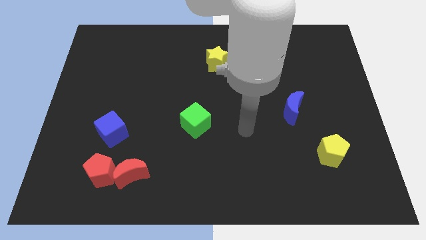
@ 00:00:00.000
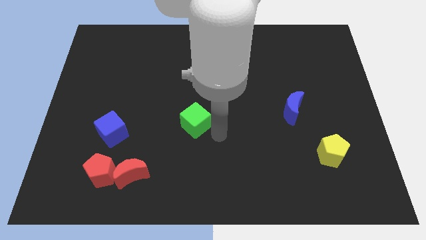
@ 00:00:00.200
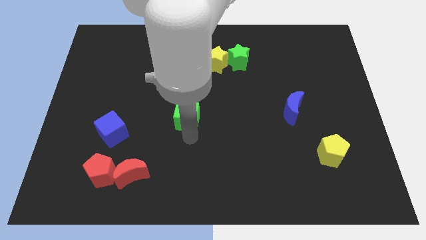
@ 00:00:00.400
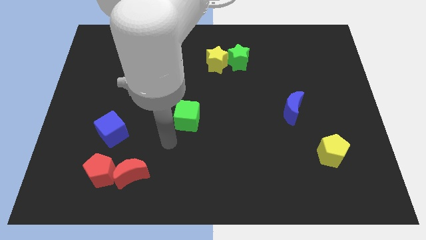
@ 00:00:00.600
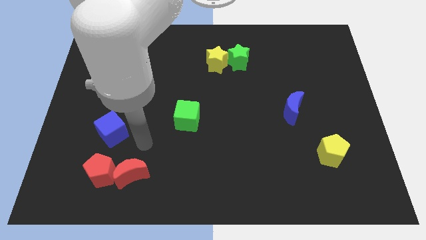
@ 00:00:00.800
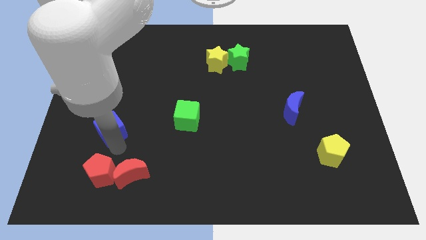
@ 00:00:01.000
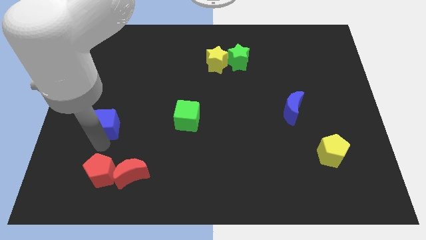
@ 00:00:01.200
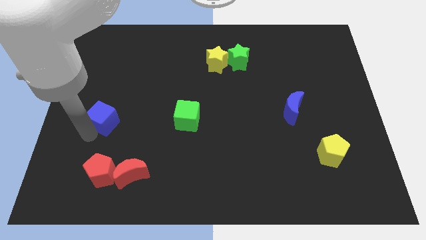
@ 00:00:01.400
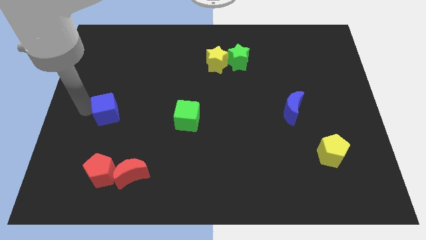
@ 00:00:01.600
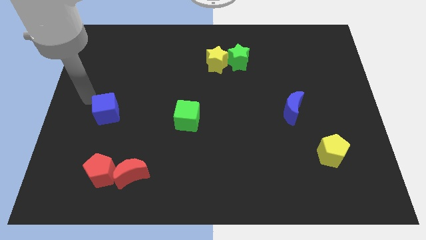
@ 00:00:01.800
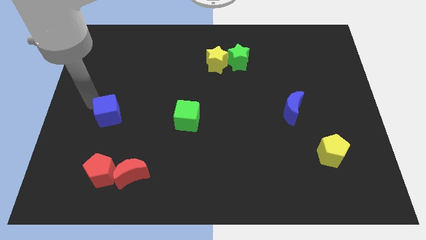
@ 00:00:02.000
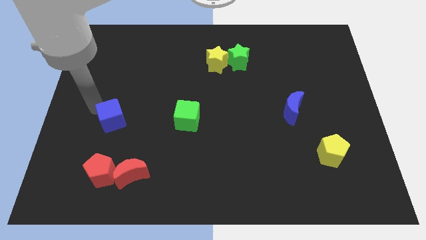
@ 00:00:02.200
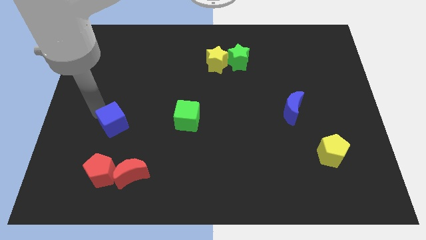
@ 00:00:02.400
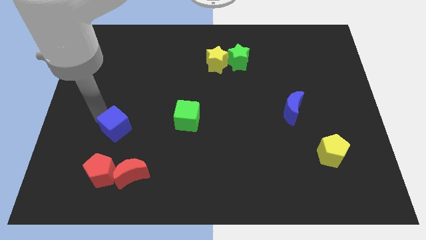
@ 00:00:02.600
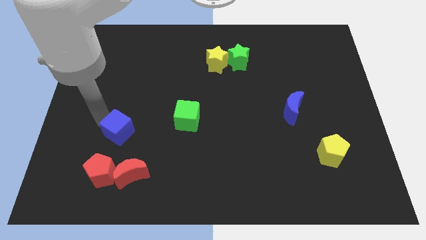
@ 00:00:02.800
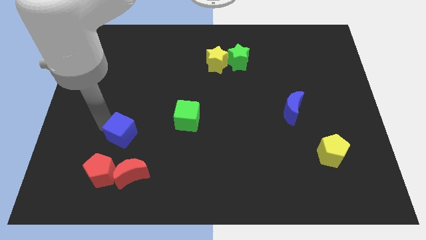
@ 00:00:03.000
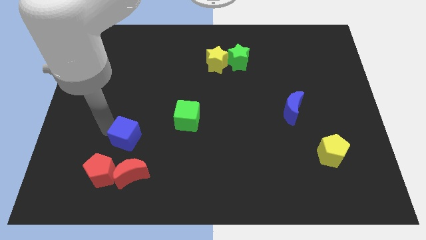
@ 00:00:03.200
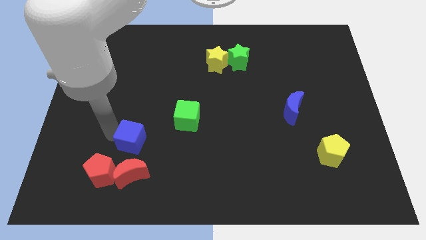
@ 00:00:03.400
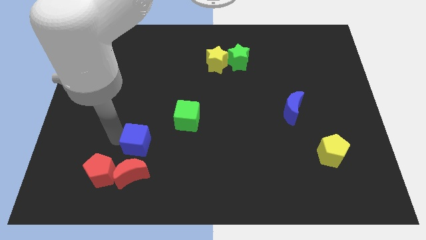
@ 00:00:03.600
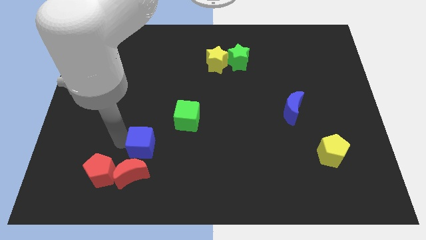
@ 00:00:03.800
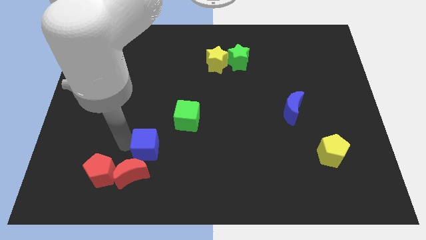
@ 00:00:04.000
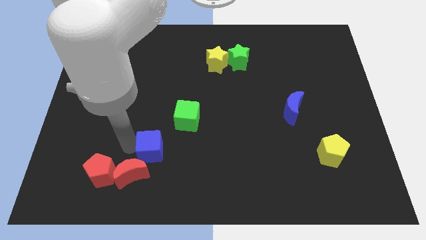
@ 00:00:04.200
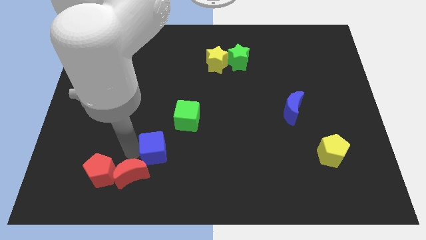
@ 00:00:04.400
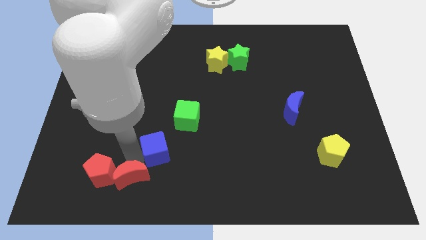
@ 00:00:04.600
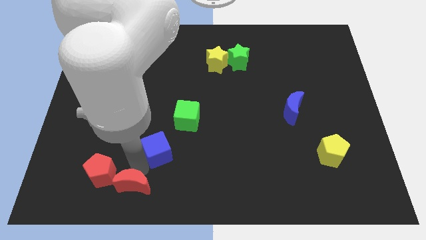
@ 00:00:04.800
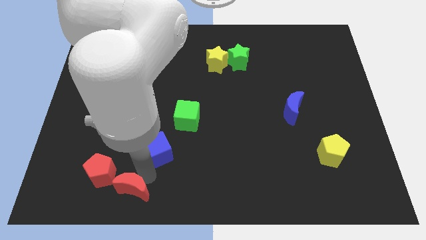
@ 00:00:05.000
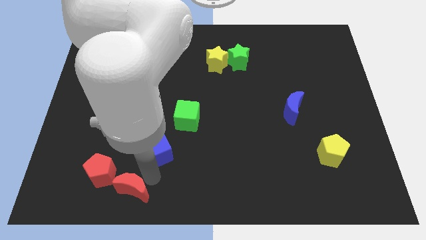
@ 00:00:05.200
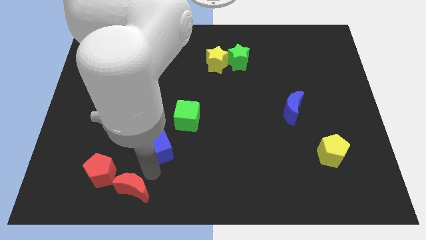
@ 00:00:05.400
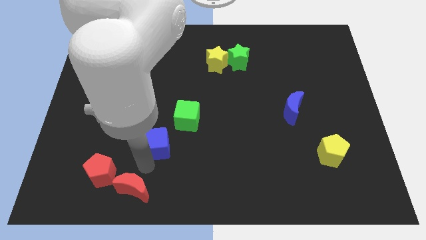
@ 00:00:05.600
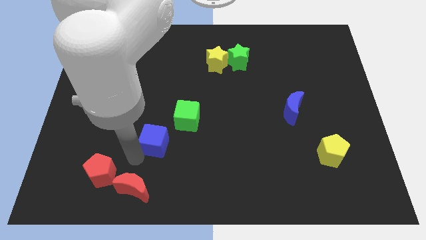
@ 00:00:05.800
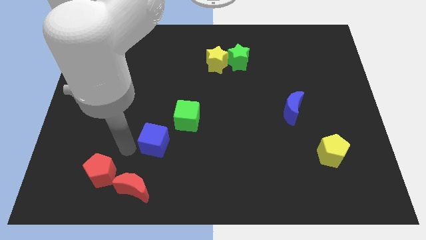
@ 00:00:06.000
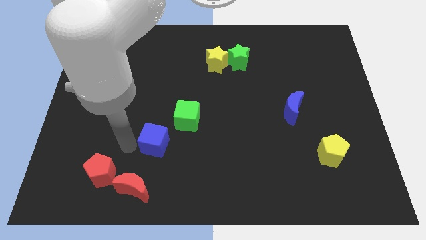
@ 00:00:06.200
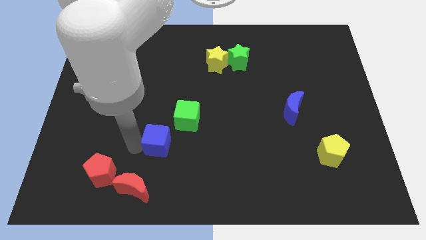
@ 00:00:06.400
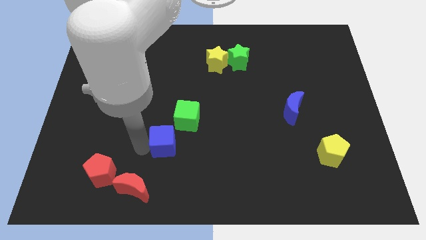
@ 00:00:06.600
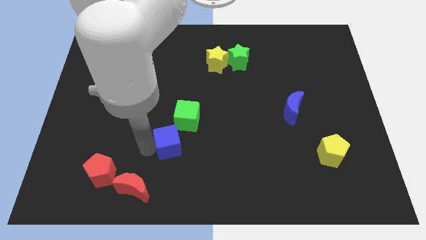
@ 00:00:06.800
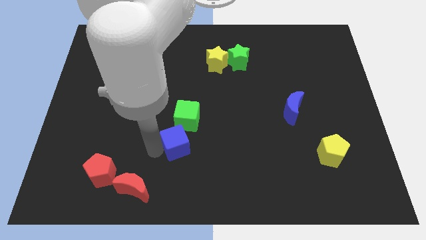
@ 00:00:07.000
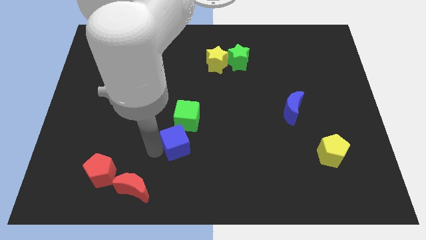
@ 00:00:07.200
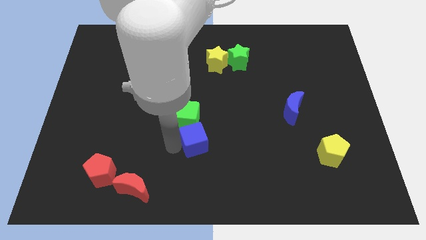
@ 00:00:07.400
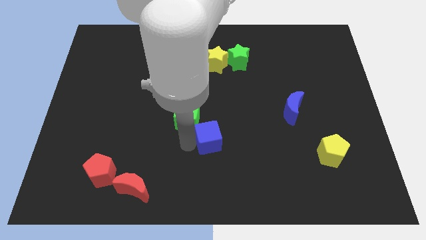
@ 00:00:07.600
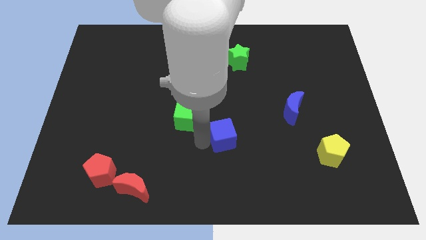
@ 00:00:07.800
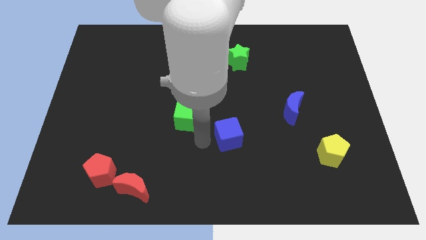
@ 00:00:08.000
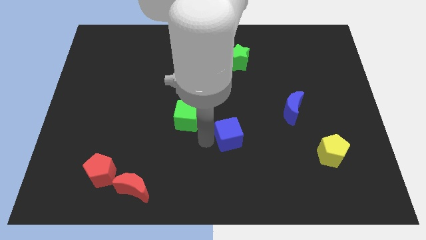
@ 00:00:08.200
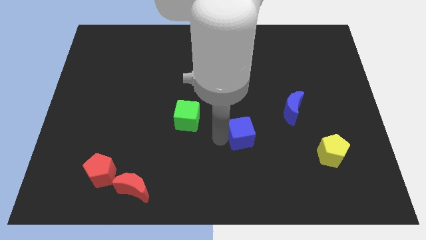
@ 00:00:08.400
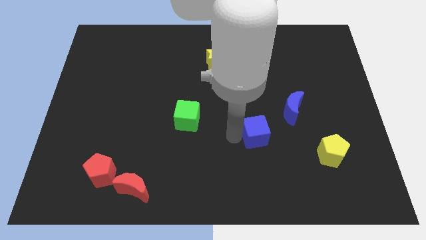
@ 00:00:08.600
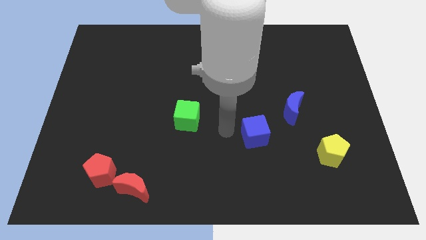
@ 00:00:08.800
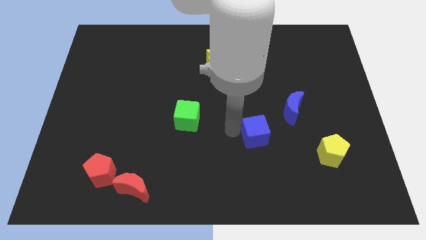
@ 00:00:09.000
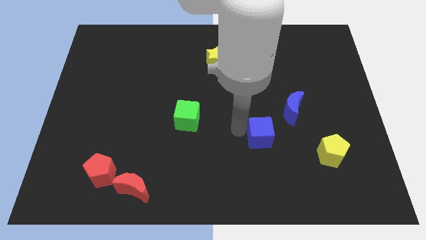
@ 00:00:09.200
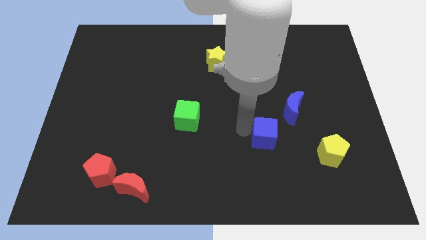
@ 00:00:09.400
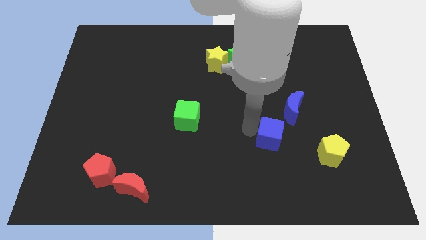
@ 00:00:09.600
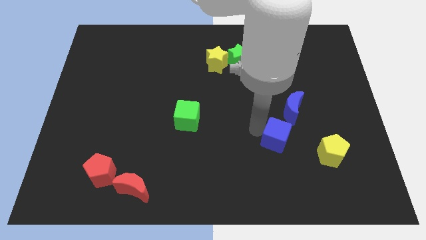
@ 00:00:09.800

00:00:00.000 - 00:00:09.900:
push the blue cube below the blue moon

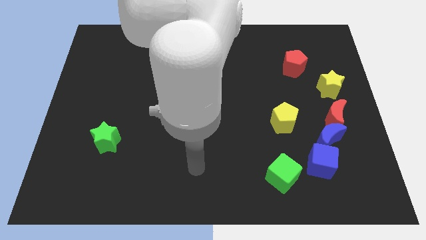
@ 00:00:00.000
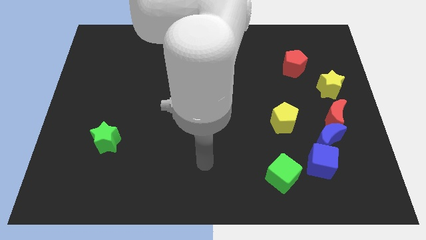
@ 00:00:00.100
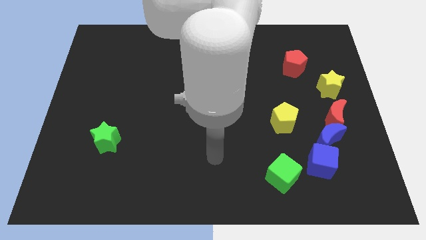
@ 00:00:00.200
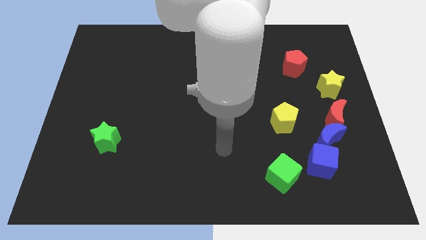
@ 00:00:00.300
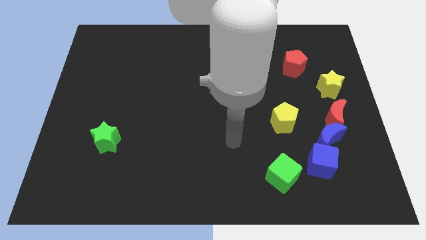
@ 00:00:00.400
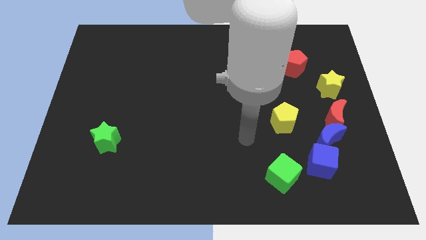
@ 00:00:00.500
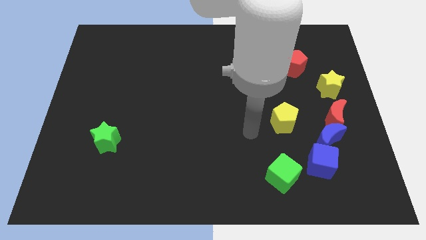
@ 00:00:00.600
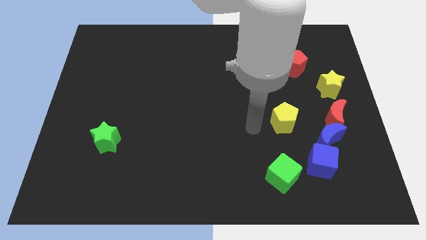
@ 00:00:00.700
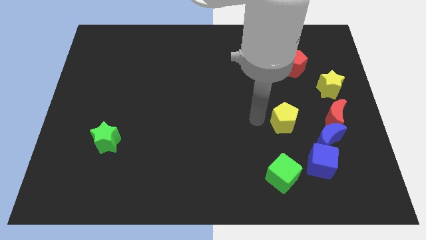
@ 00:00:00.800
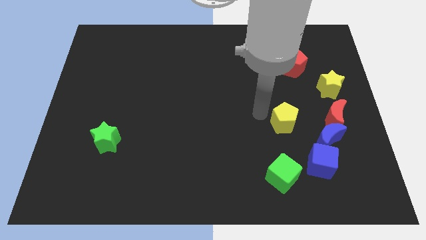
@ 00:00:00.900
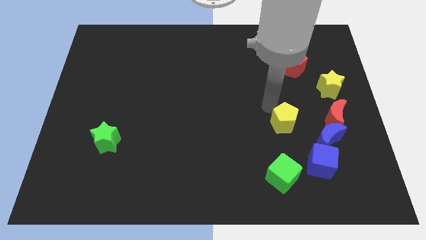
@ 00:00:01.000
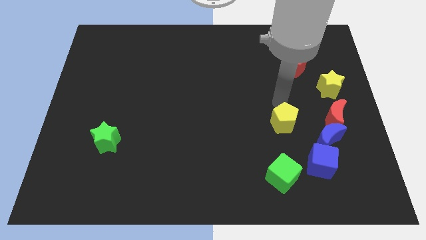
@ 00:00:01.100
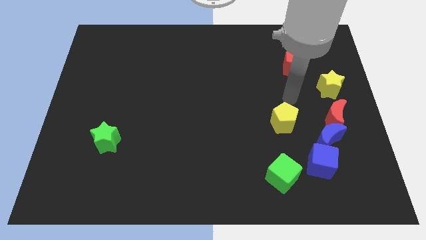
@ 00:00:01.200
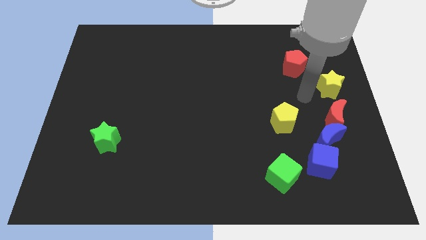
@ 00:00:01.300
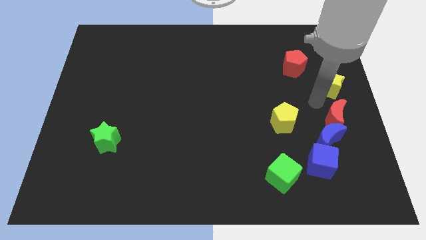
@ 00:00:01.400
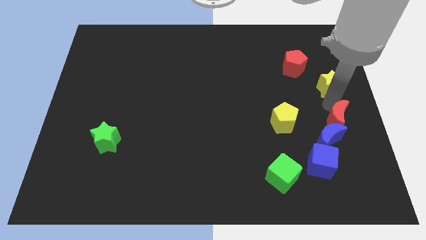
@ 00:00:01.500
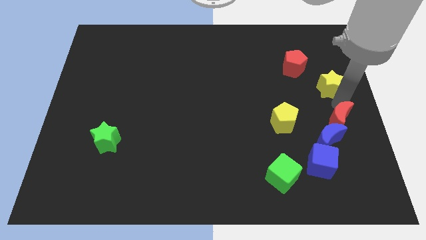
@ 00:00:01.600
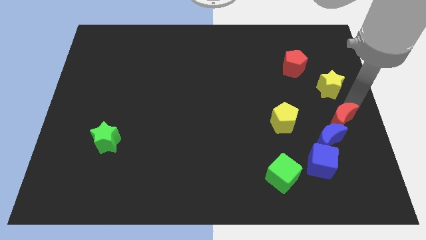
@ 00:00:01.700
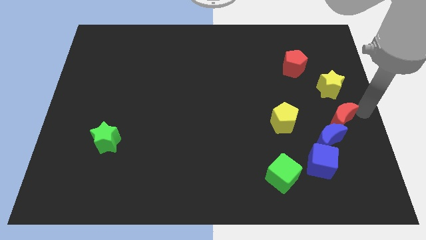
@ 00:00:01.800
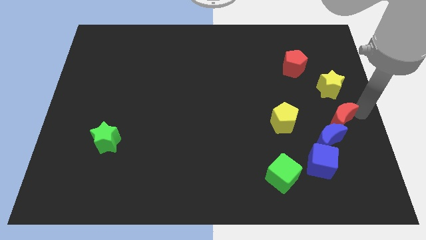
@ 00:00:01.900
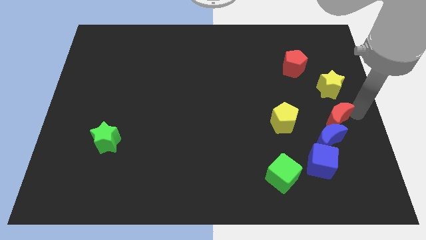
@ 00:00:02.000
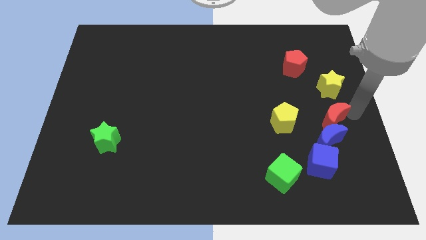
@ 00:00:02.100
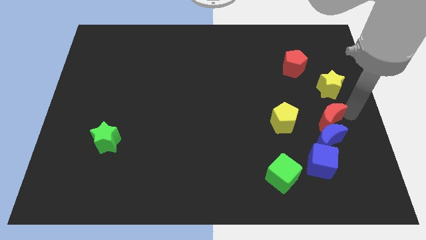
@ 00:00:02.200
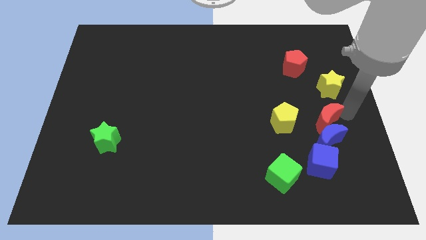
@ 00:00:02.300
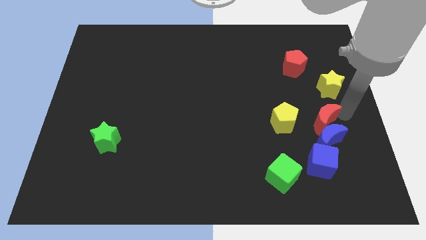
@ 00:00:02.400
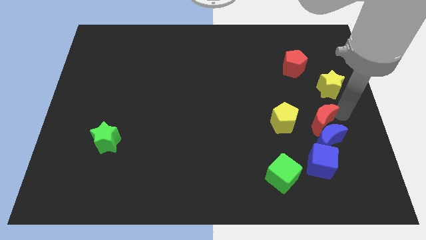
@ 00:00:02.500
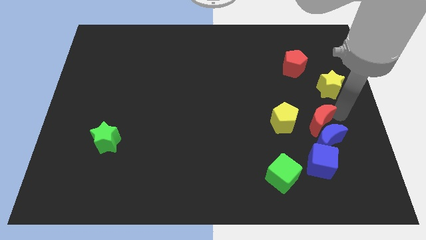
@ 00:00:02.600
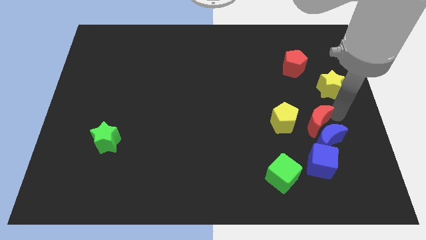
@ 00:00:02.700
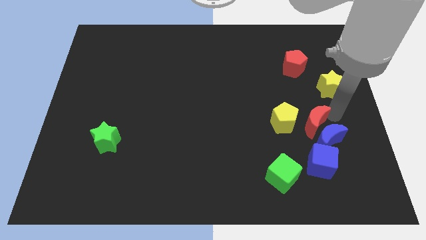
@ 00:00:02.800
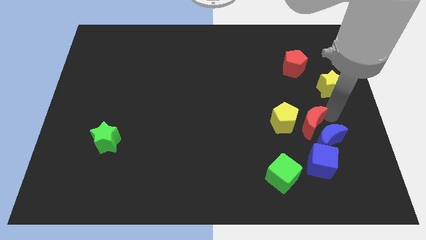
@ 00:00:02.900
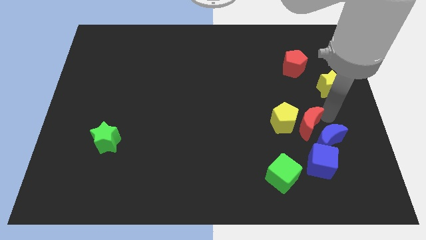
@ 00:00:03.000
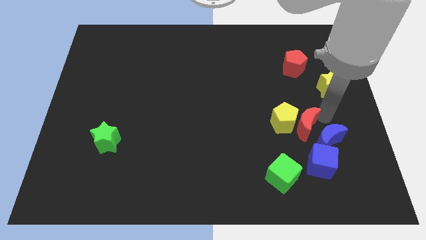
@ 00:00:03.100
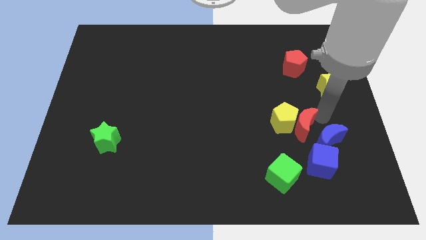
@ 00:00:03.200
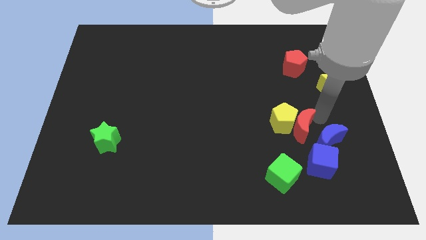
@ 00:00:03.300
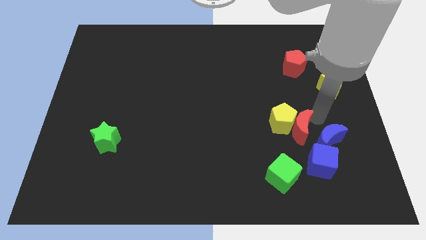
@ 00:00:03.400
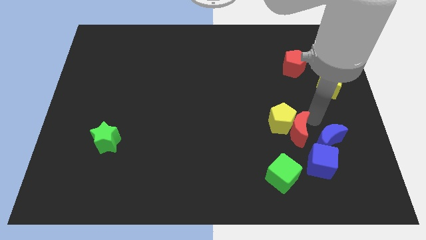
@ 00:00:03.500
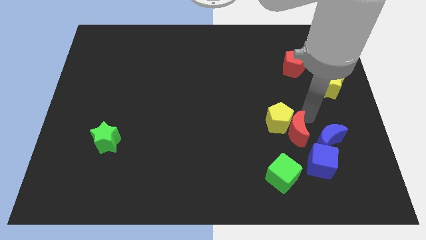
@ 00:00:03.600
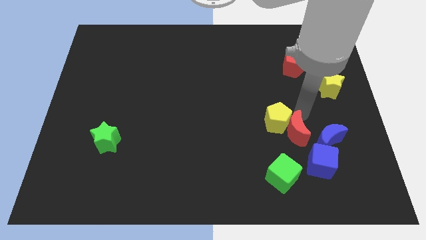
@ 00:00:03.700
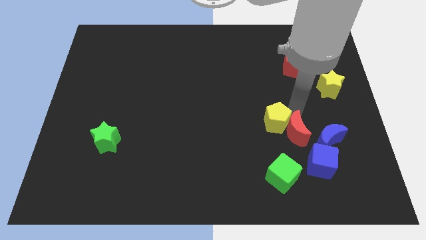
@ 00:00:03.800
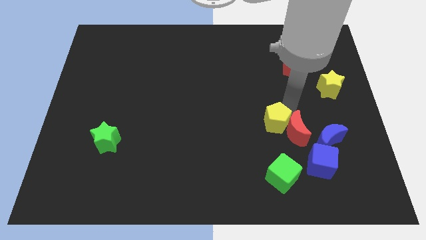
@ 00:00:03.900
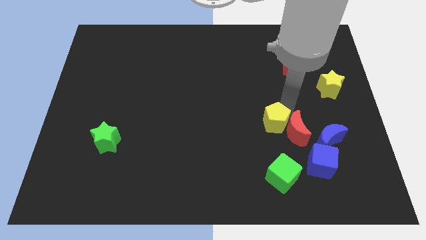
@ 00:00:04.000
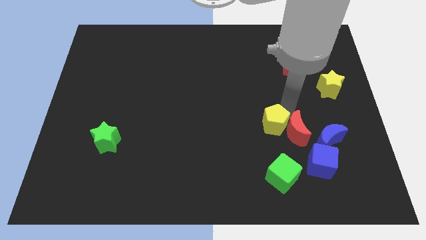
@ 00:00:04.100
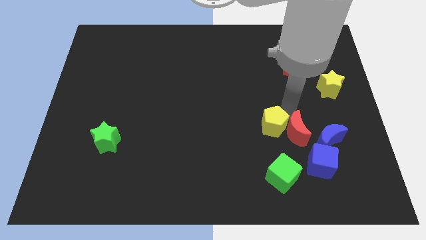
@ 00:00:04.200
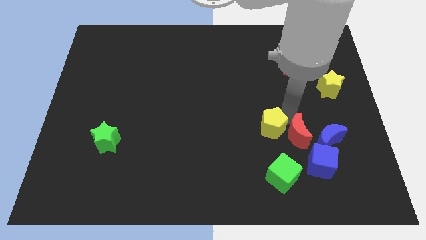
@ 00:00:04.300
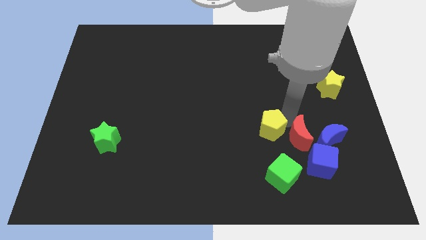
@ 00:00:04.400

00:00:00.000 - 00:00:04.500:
move the red moon to the bottom left of the blue moon
